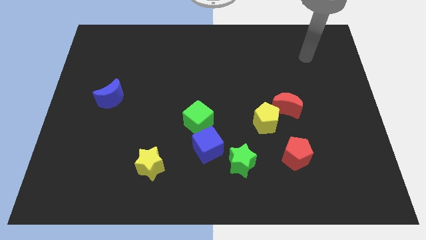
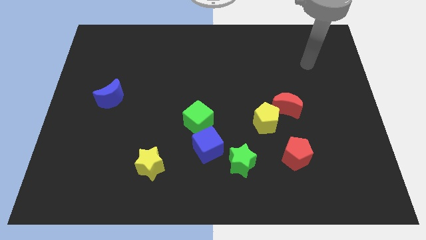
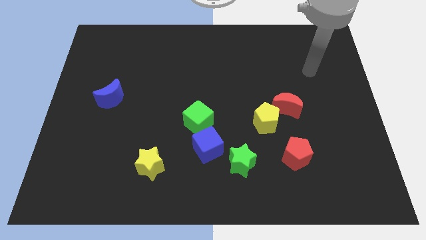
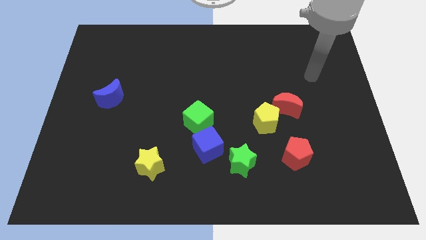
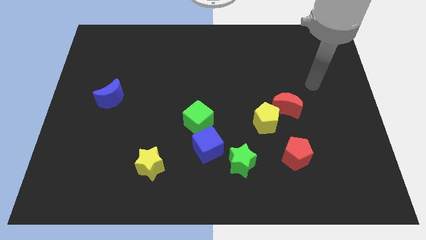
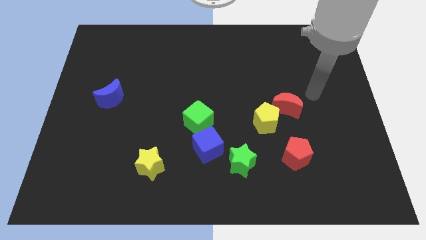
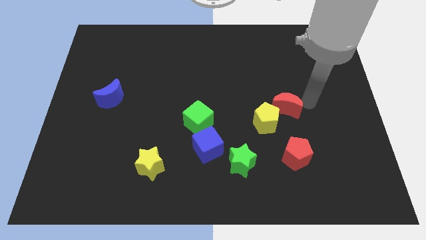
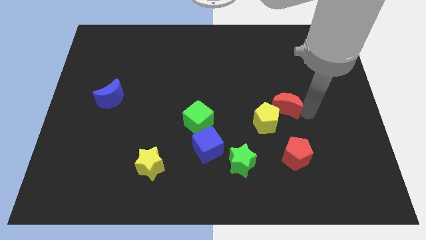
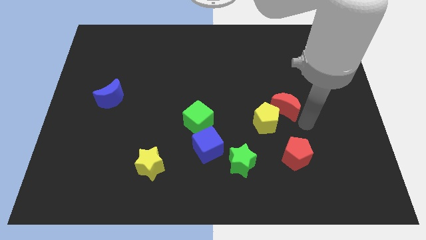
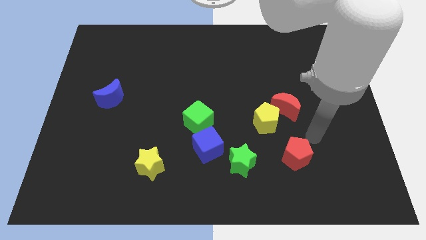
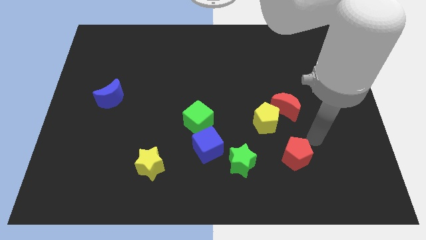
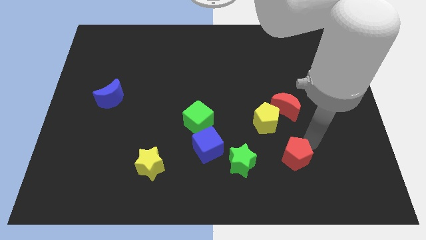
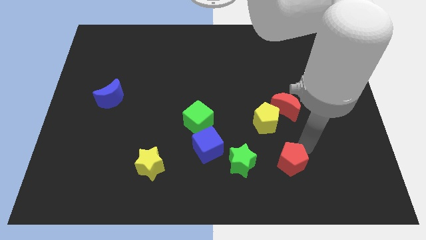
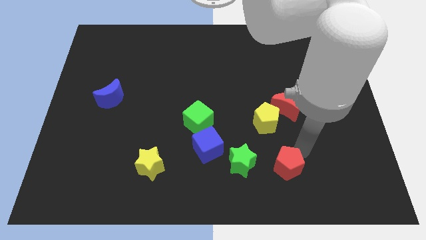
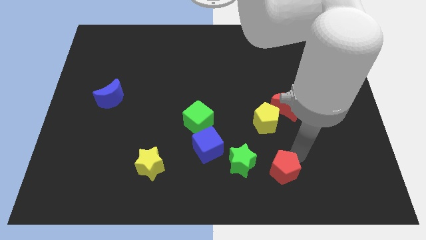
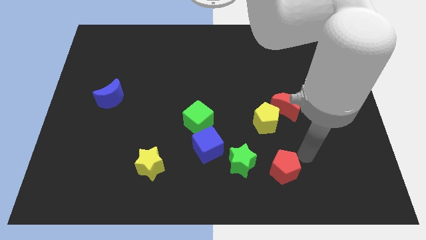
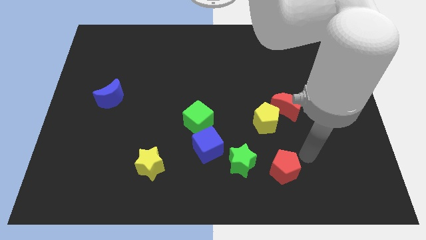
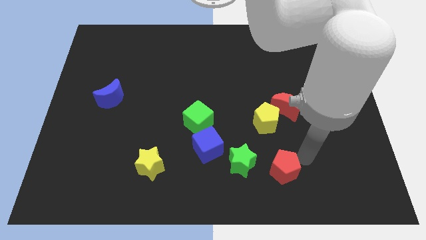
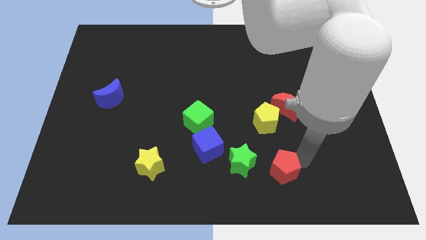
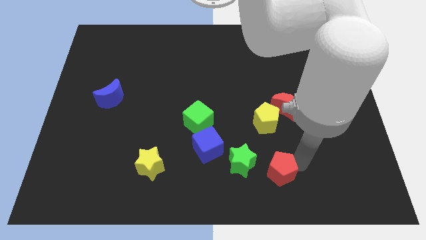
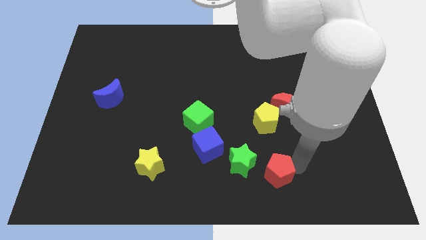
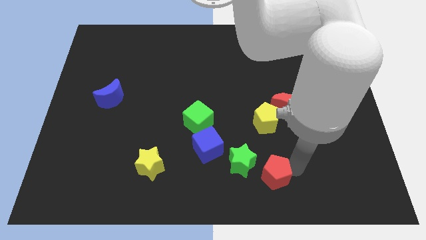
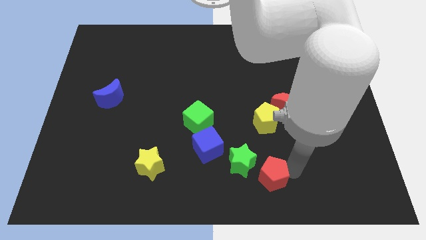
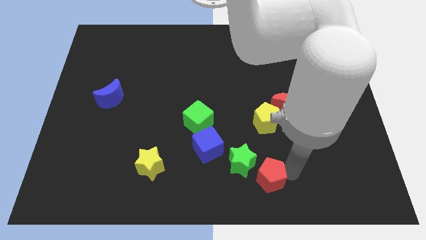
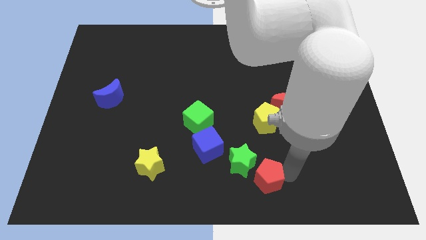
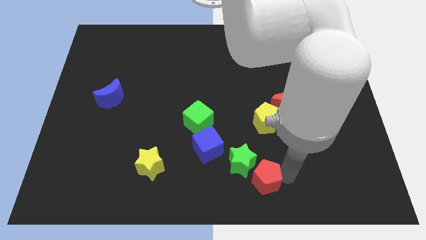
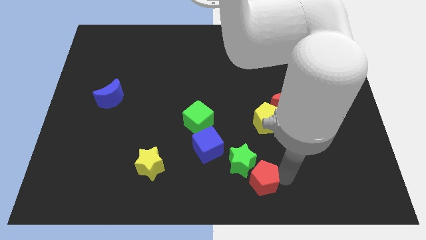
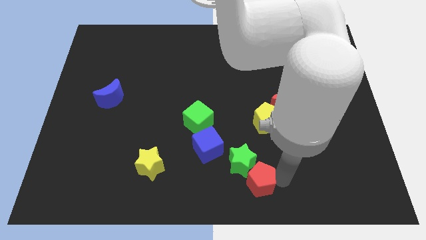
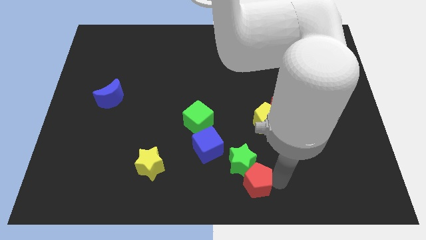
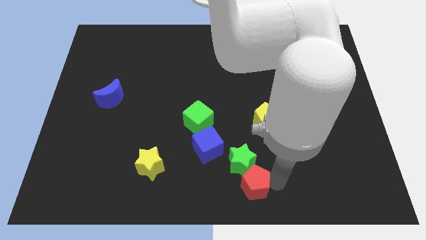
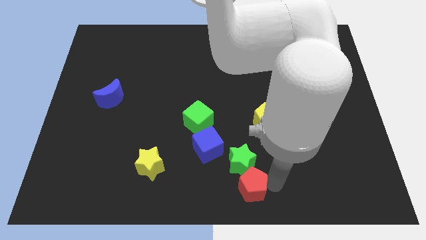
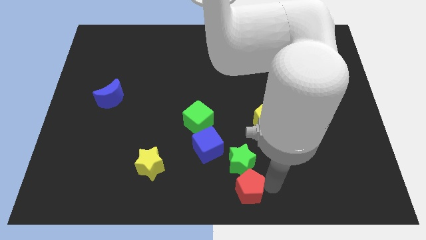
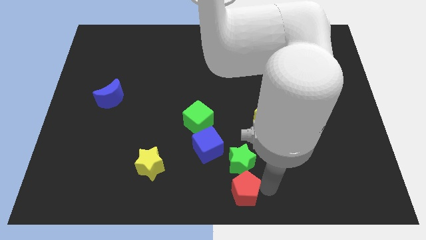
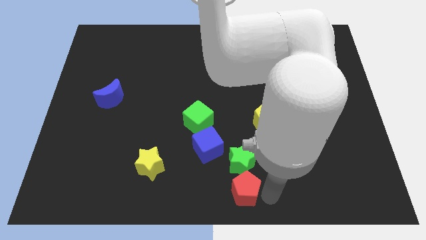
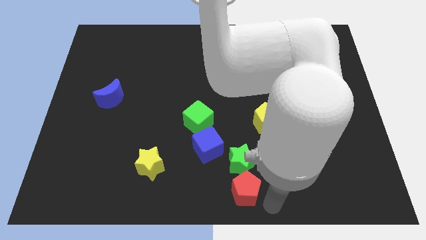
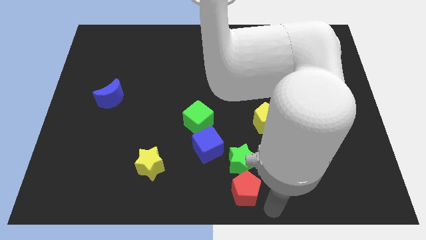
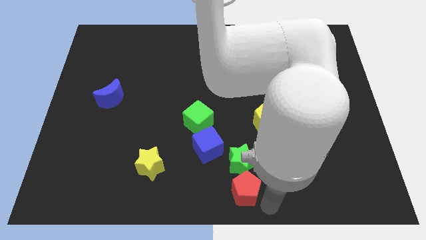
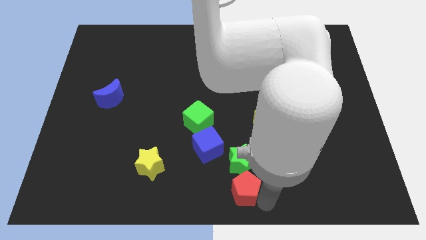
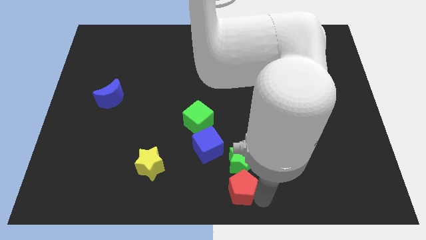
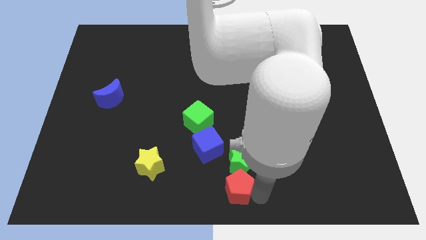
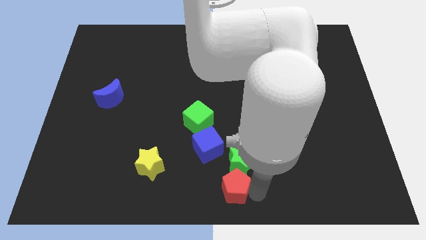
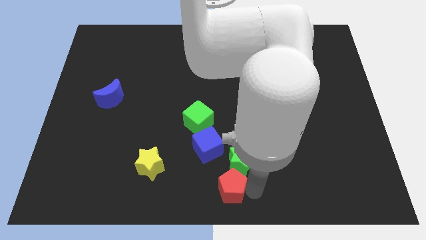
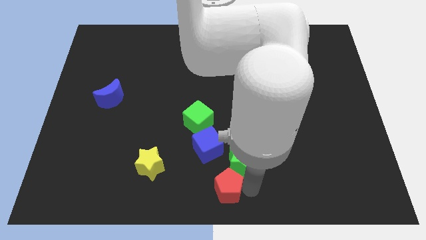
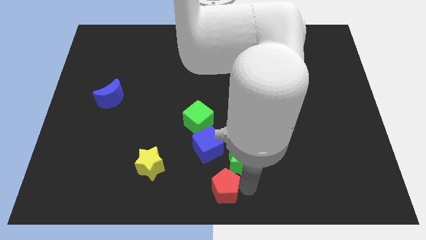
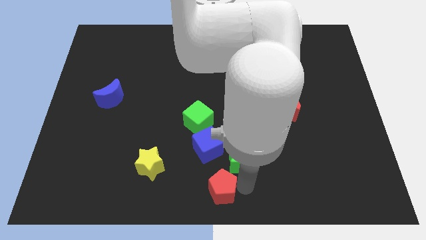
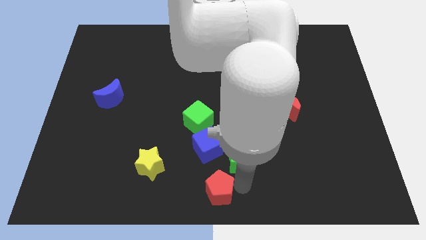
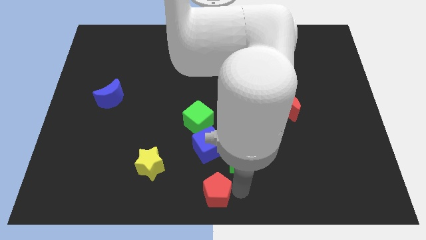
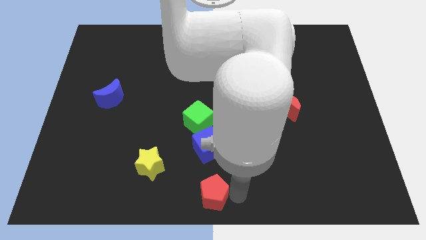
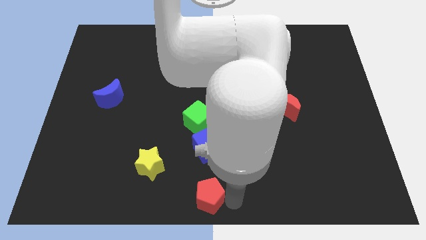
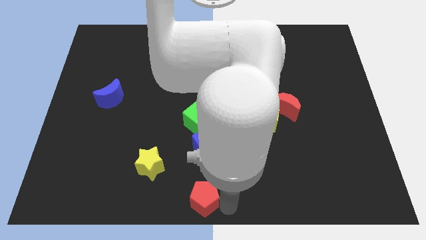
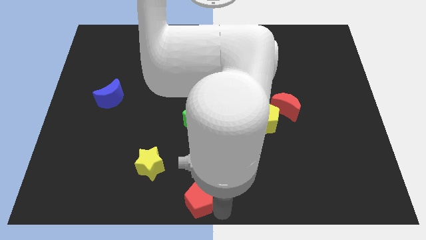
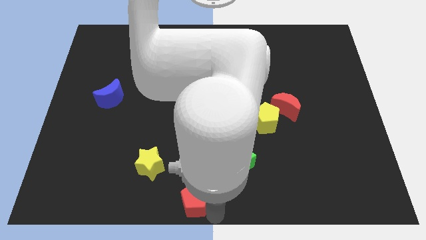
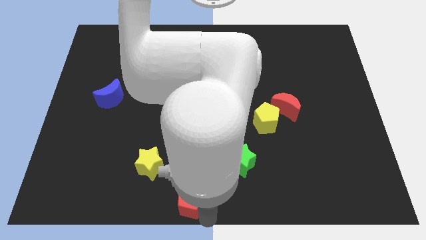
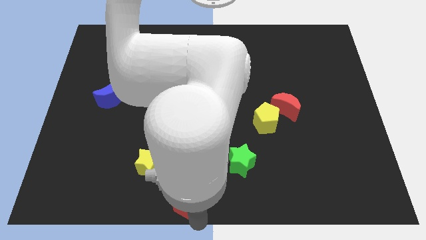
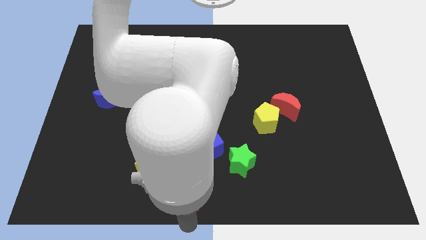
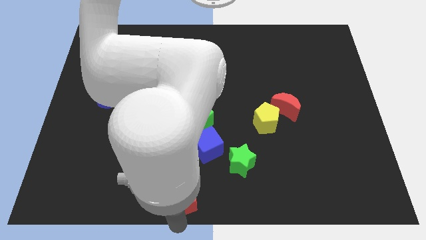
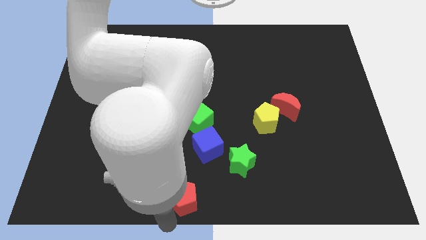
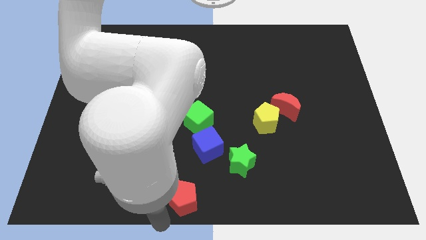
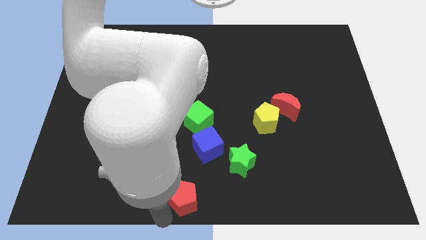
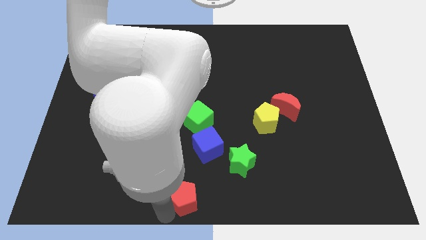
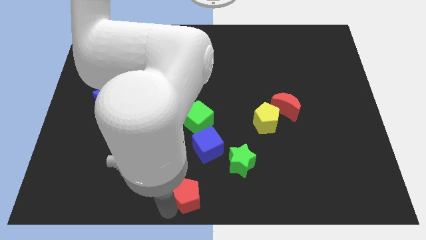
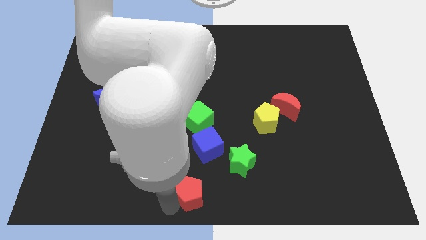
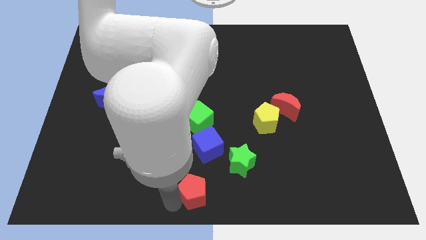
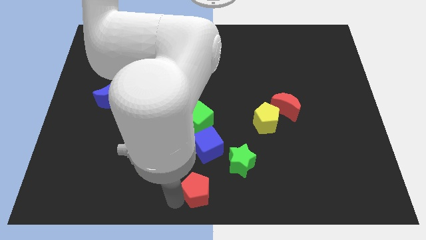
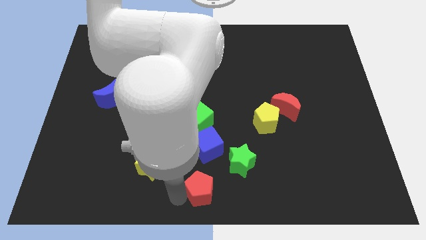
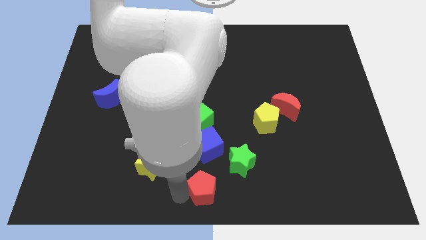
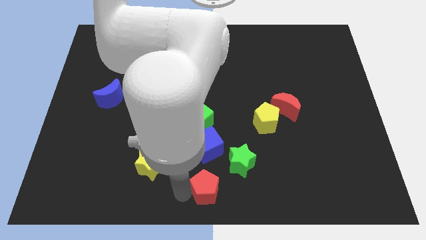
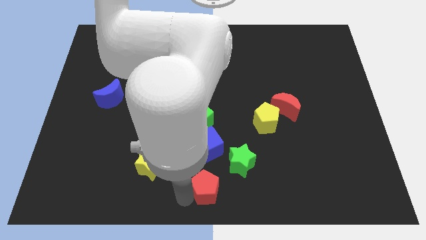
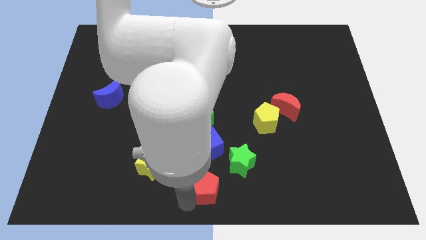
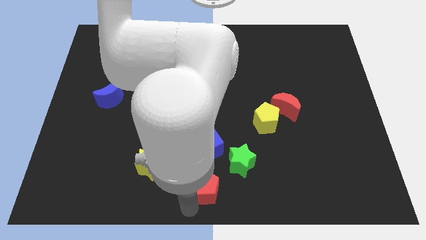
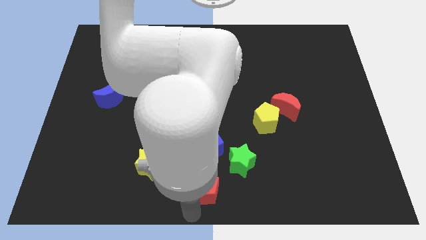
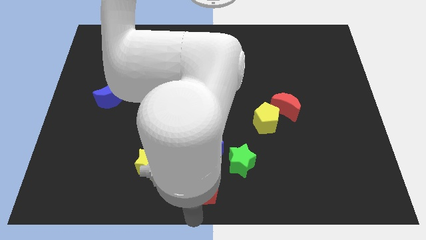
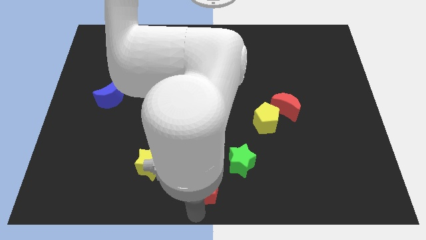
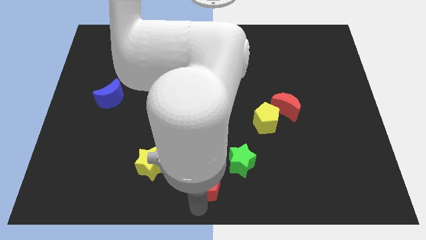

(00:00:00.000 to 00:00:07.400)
push the red pentagon to the bottom of the green cube
